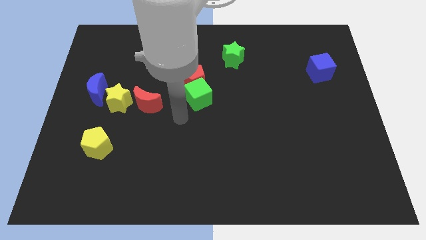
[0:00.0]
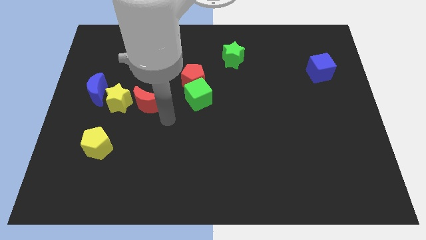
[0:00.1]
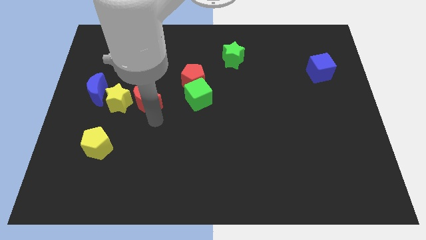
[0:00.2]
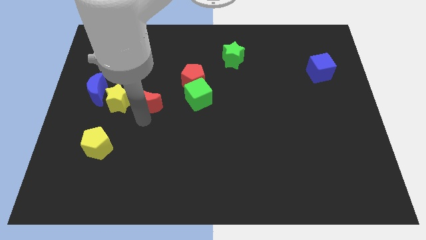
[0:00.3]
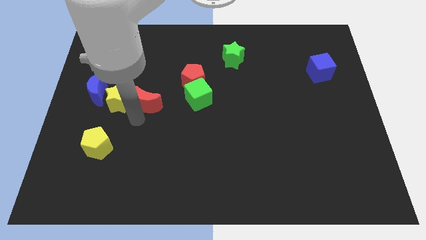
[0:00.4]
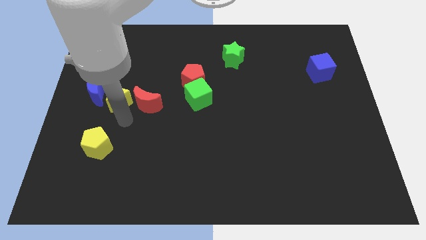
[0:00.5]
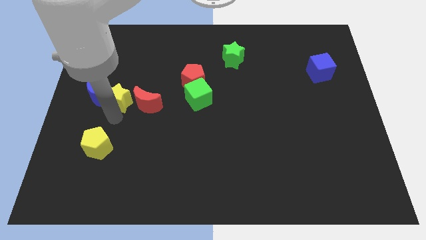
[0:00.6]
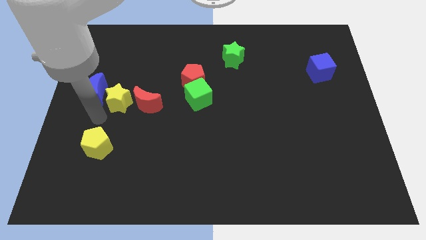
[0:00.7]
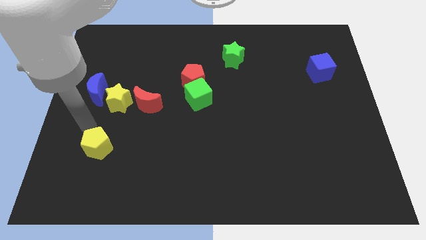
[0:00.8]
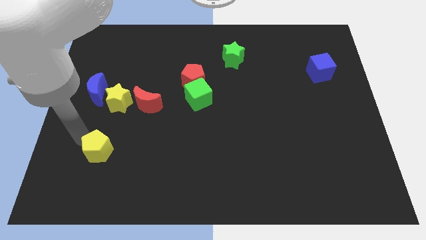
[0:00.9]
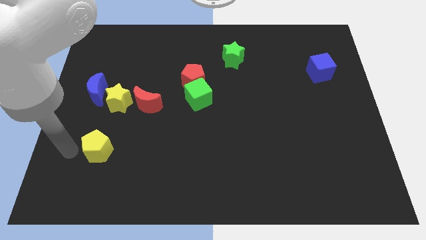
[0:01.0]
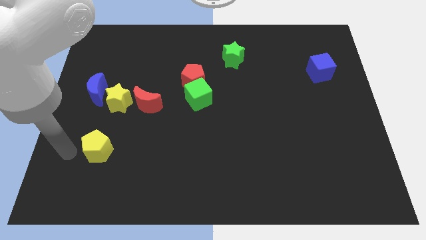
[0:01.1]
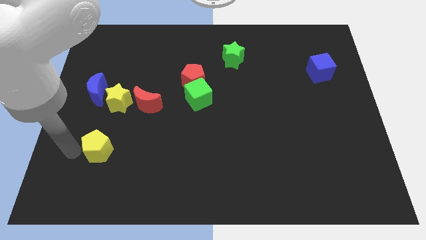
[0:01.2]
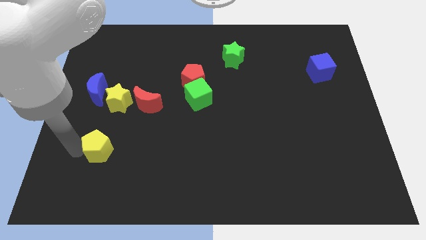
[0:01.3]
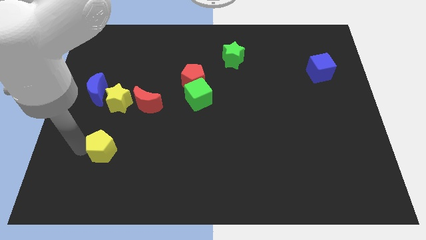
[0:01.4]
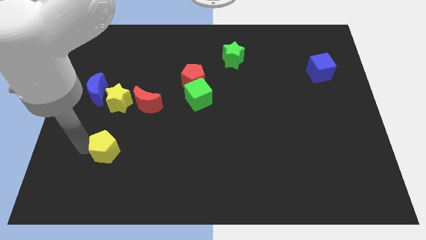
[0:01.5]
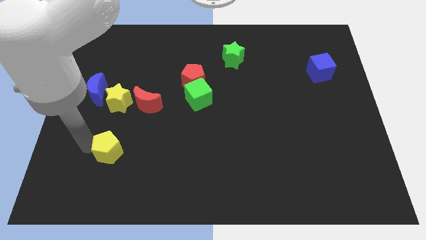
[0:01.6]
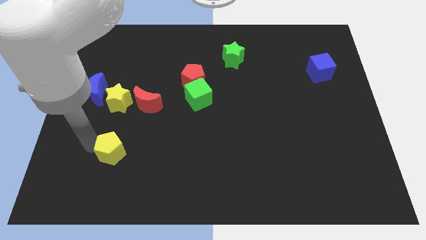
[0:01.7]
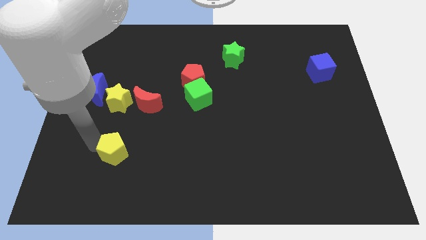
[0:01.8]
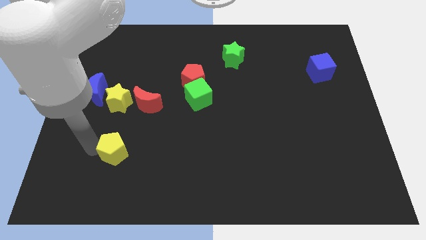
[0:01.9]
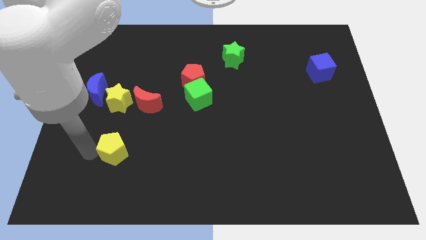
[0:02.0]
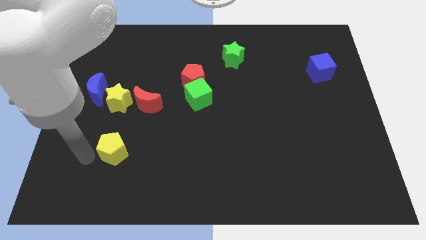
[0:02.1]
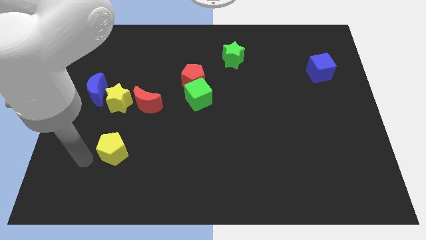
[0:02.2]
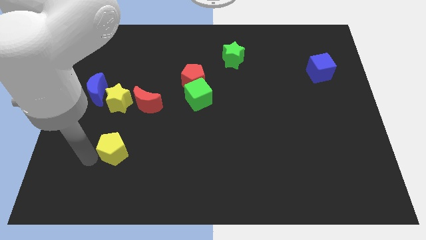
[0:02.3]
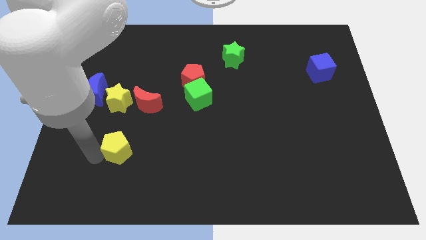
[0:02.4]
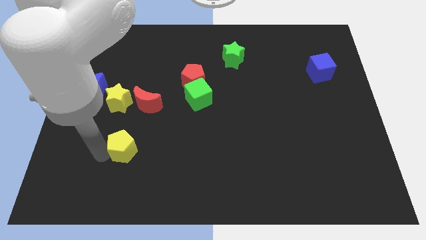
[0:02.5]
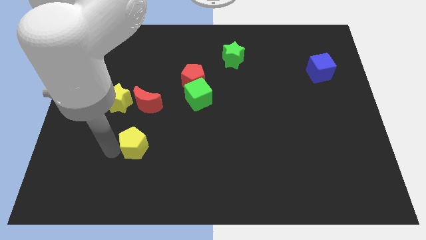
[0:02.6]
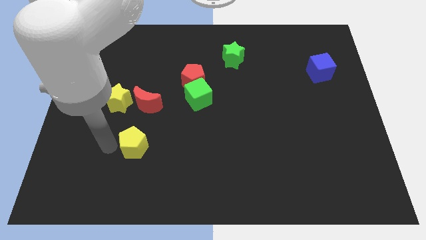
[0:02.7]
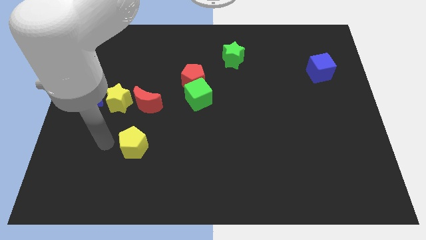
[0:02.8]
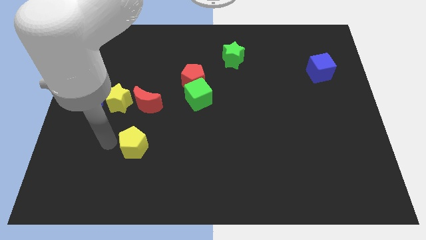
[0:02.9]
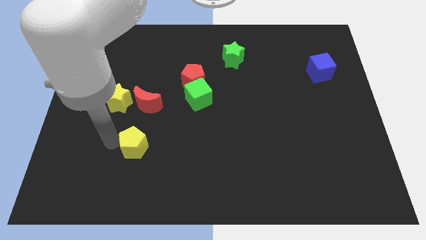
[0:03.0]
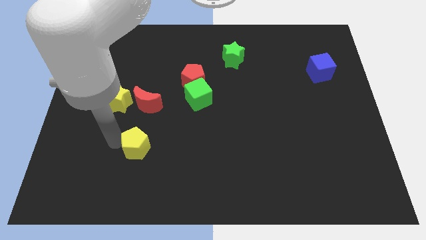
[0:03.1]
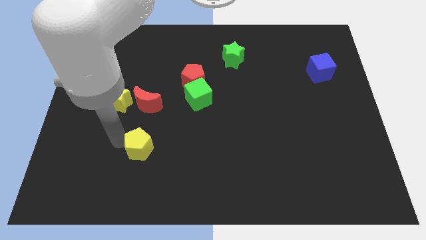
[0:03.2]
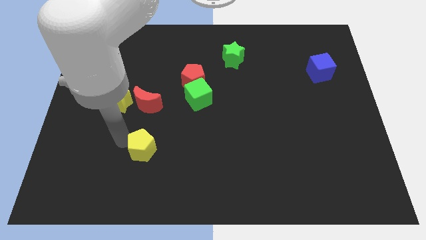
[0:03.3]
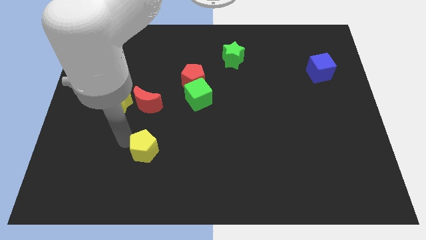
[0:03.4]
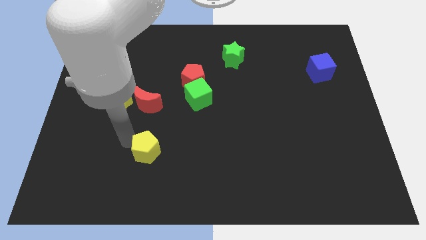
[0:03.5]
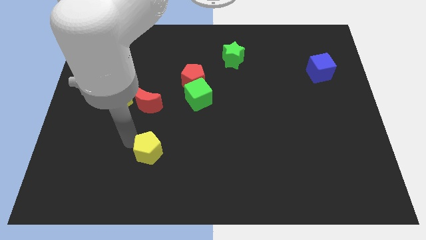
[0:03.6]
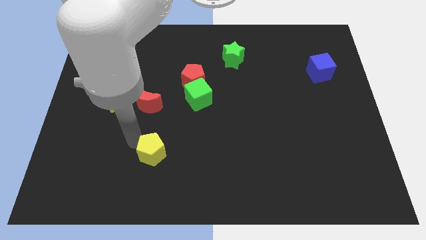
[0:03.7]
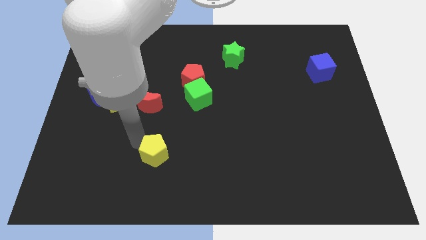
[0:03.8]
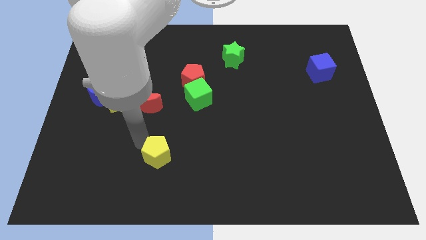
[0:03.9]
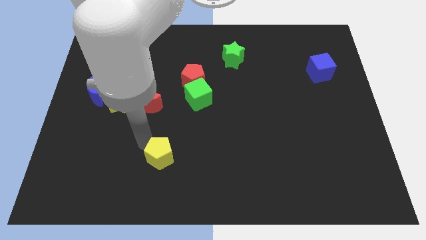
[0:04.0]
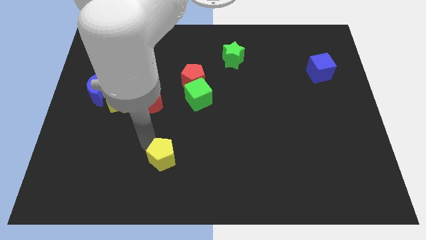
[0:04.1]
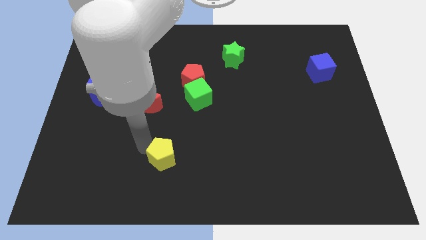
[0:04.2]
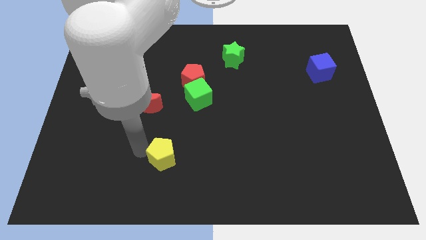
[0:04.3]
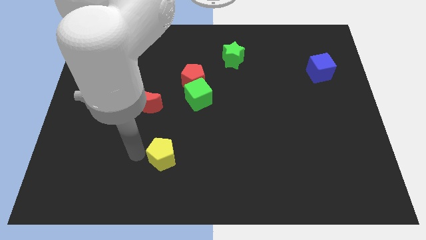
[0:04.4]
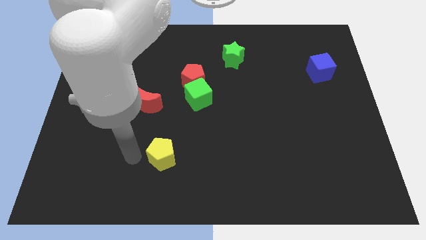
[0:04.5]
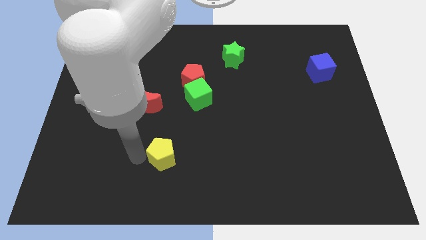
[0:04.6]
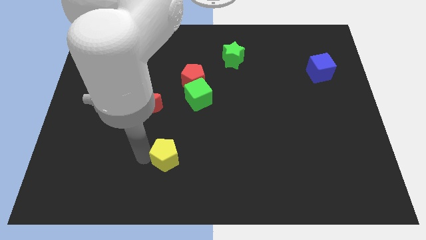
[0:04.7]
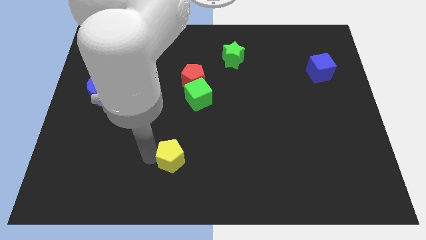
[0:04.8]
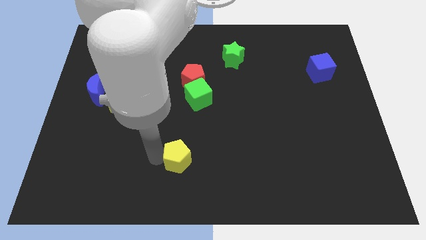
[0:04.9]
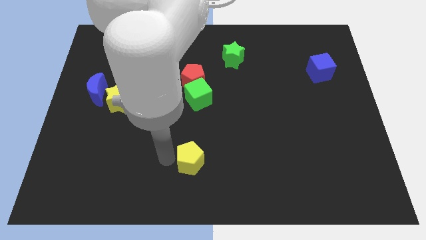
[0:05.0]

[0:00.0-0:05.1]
slide the yellow pentagon right

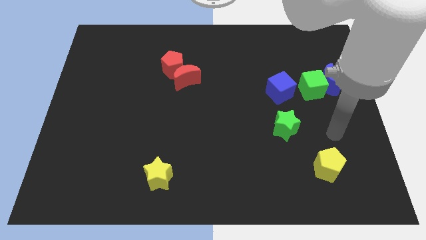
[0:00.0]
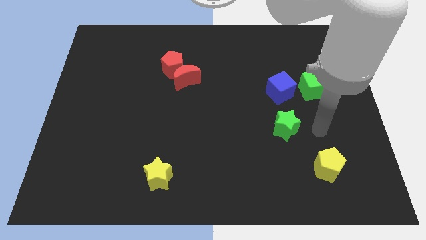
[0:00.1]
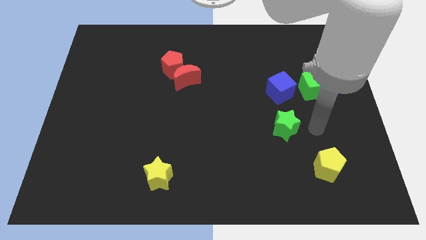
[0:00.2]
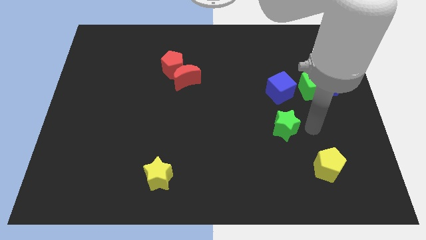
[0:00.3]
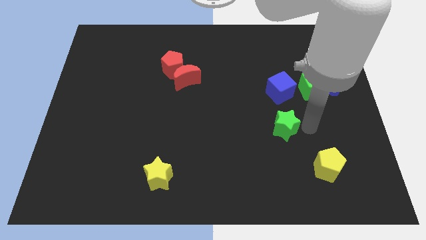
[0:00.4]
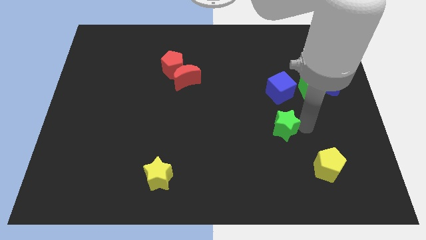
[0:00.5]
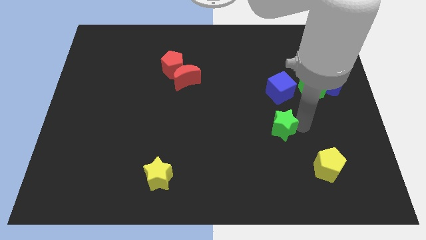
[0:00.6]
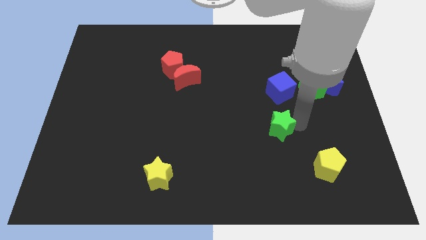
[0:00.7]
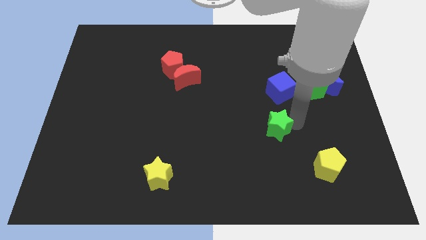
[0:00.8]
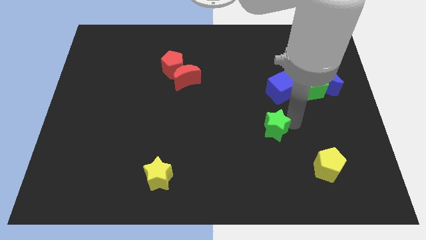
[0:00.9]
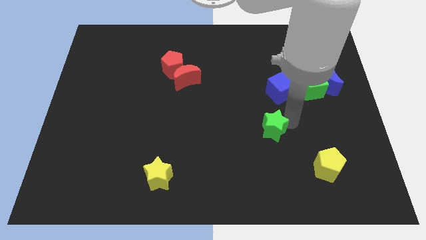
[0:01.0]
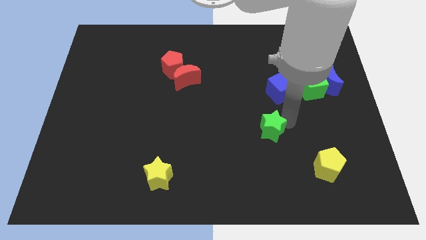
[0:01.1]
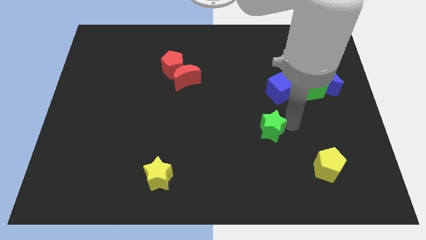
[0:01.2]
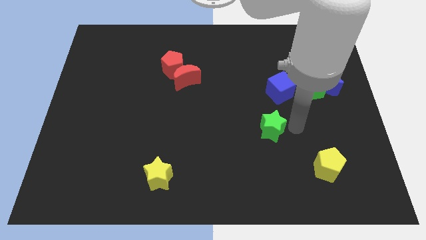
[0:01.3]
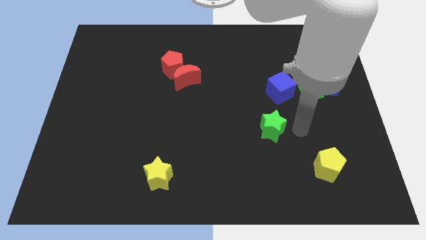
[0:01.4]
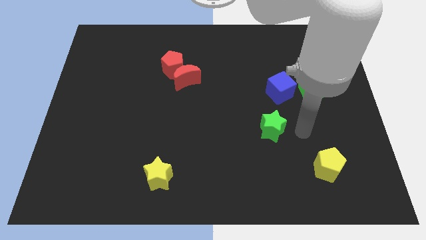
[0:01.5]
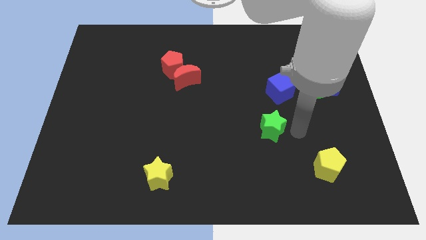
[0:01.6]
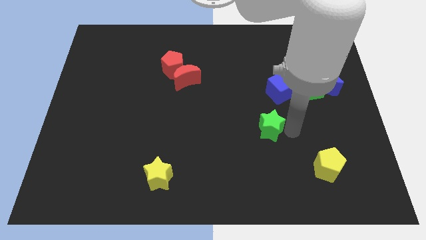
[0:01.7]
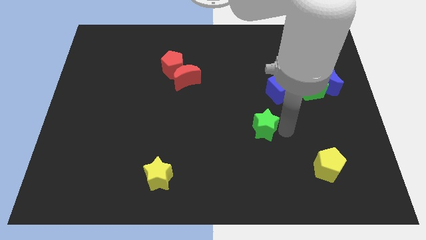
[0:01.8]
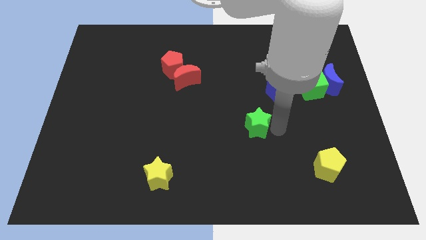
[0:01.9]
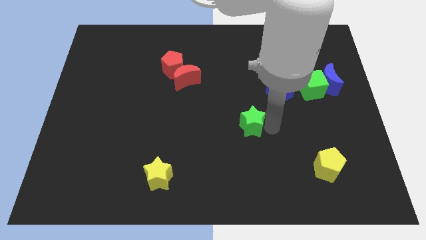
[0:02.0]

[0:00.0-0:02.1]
slide the green star a little bit to the left

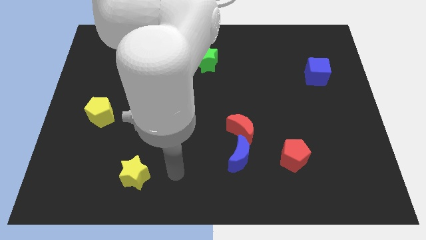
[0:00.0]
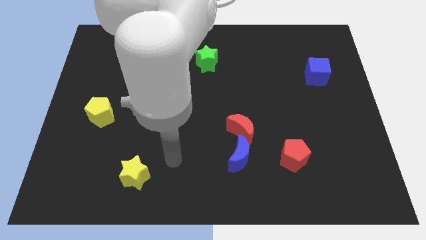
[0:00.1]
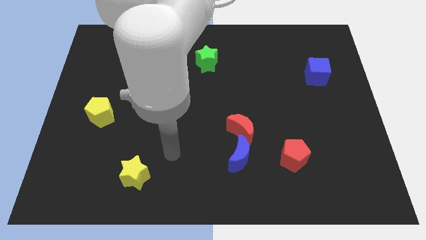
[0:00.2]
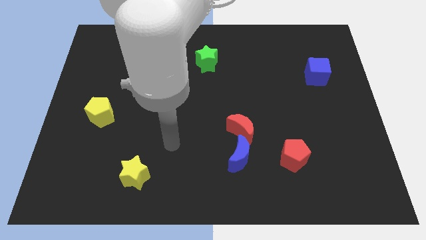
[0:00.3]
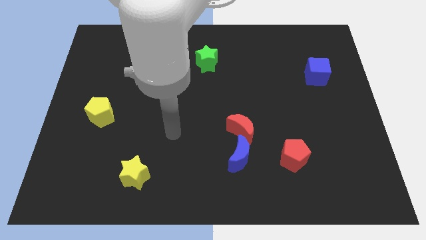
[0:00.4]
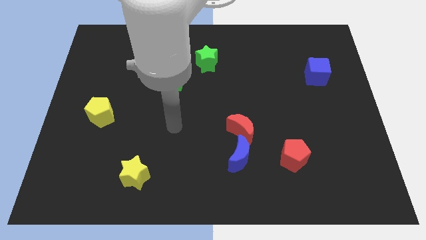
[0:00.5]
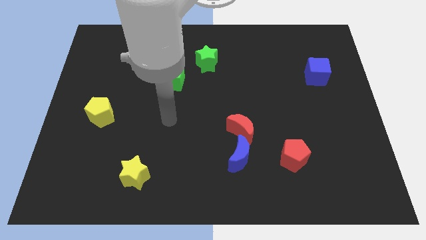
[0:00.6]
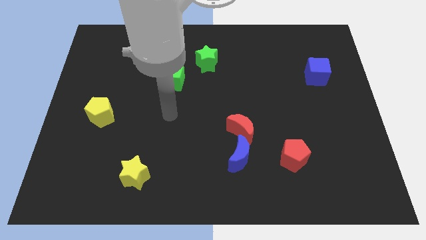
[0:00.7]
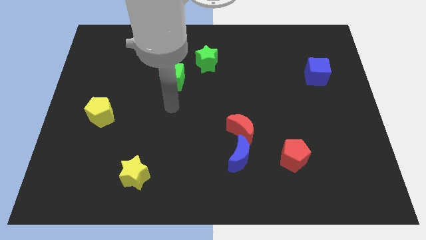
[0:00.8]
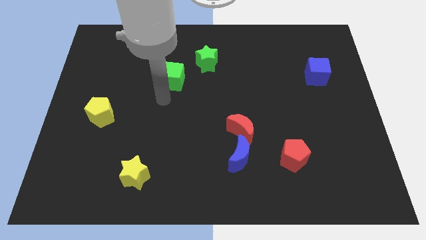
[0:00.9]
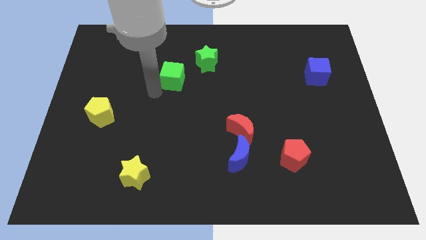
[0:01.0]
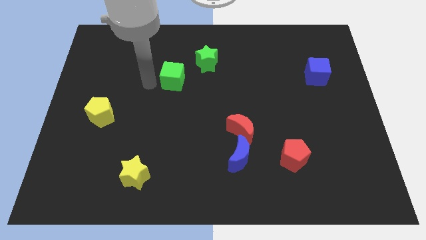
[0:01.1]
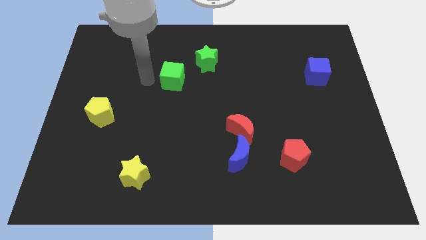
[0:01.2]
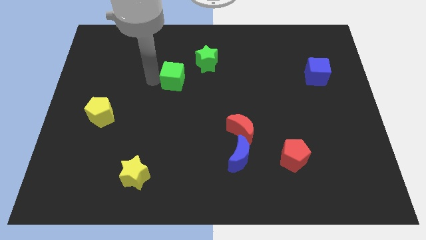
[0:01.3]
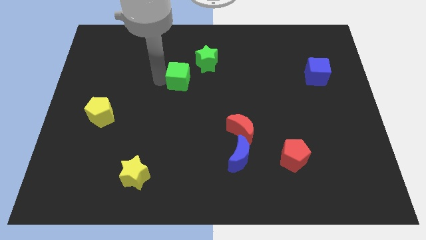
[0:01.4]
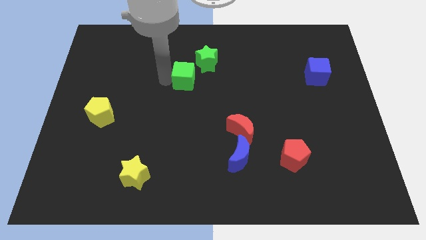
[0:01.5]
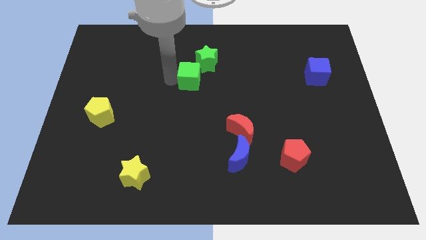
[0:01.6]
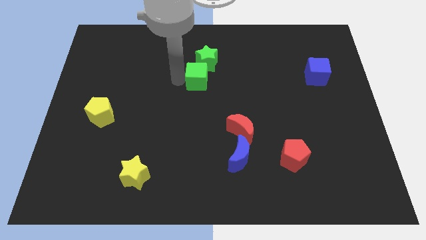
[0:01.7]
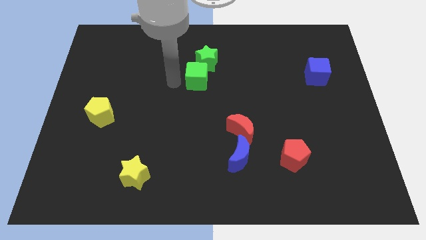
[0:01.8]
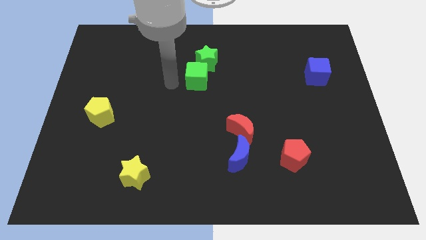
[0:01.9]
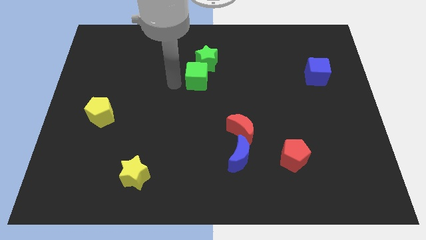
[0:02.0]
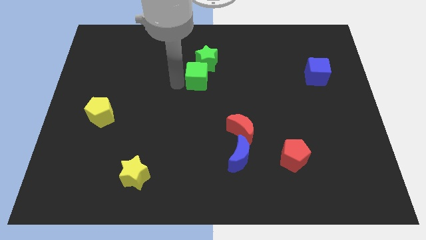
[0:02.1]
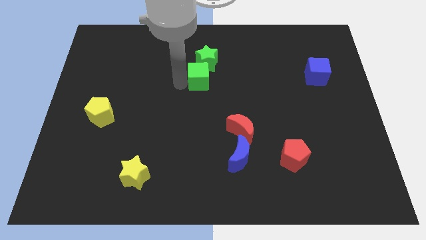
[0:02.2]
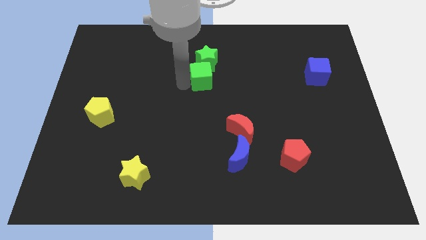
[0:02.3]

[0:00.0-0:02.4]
move the green cube right a bit
